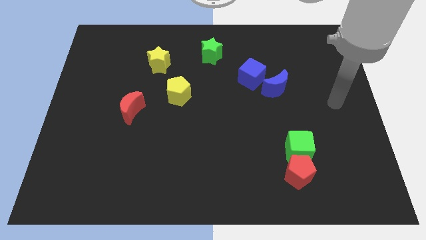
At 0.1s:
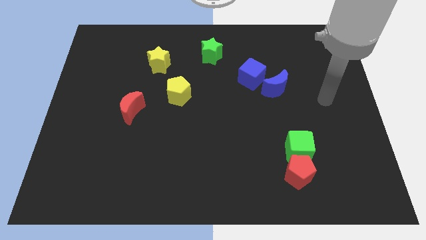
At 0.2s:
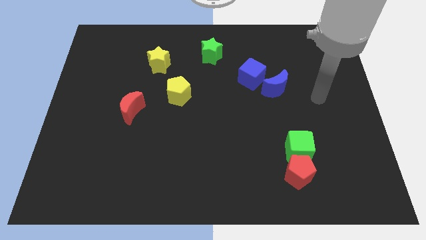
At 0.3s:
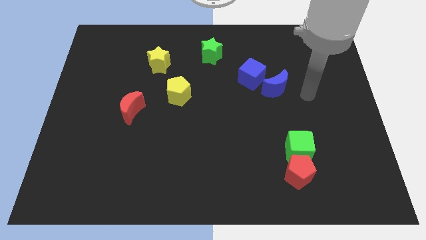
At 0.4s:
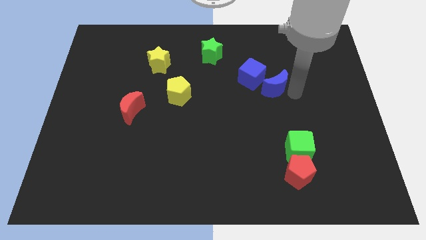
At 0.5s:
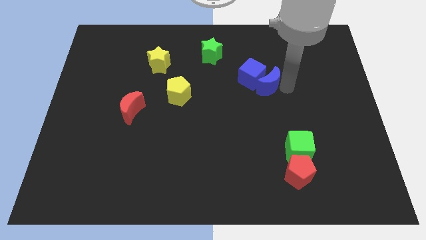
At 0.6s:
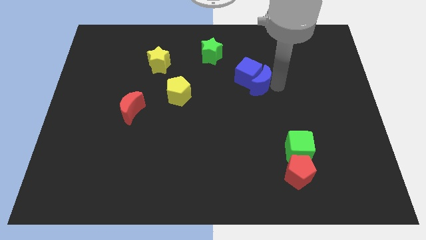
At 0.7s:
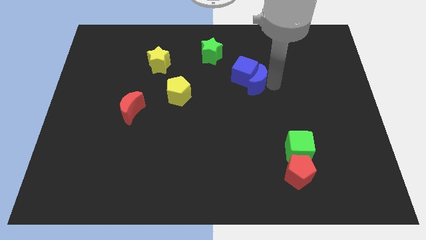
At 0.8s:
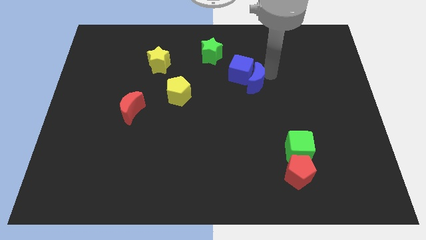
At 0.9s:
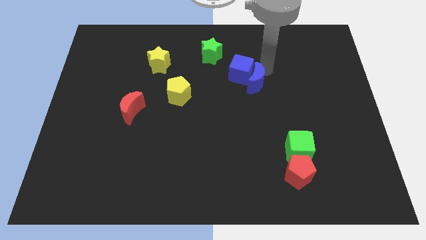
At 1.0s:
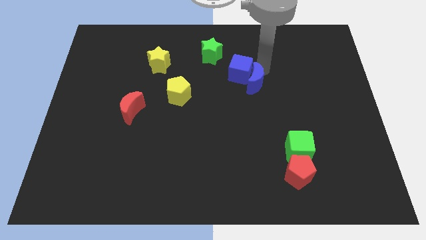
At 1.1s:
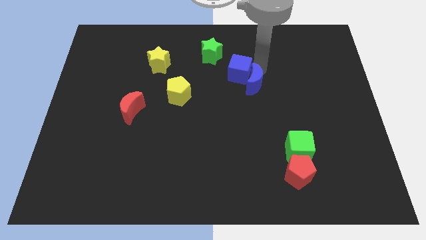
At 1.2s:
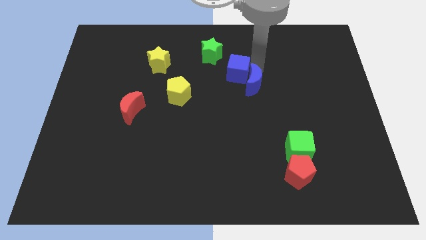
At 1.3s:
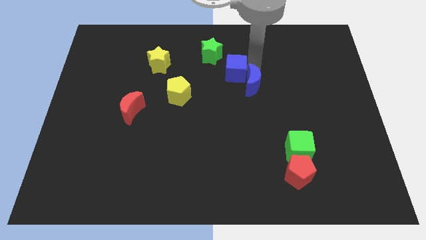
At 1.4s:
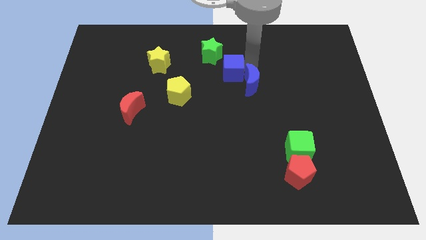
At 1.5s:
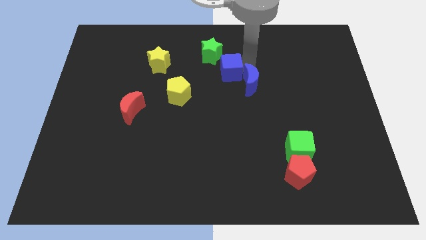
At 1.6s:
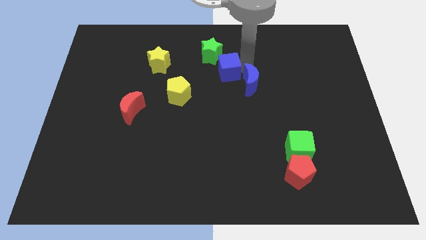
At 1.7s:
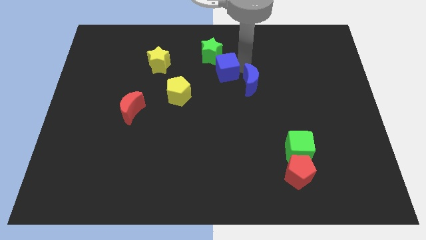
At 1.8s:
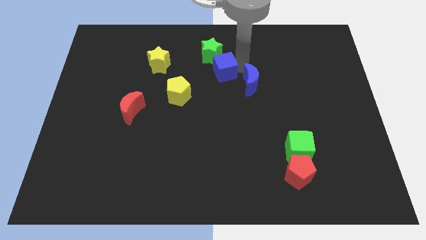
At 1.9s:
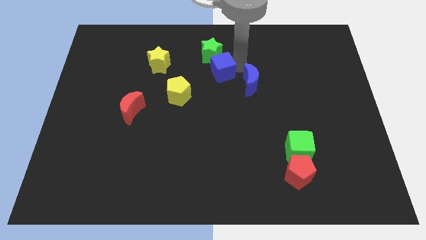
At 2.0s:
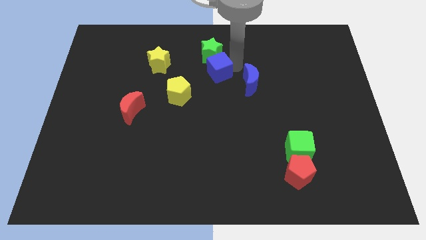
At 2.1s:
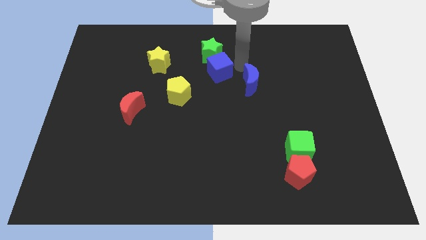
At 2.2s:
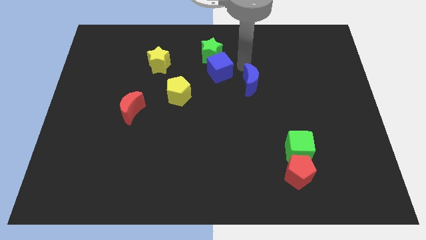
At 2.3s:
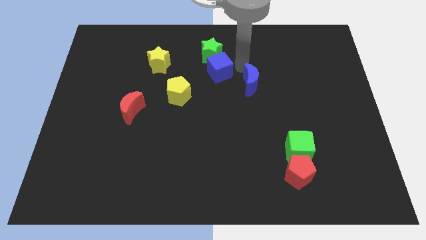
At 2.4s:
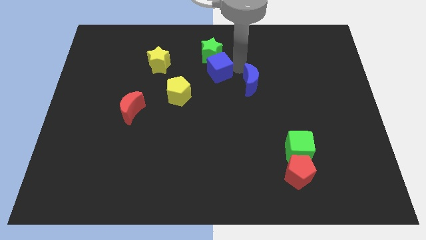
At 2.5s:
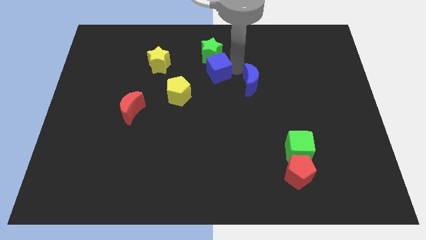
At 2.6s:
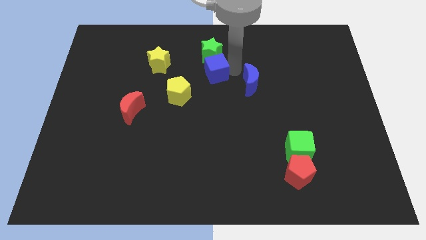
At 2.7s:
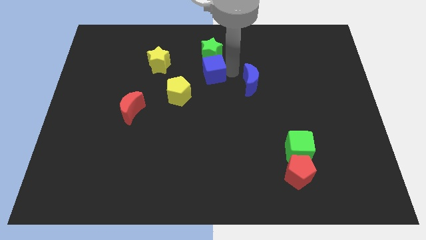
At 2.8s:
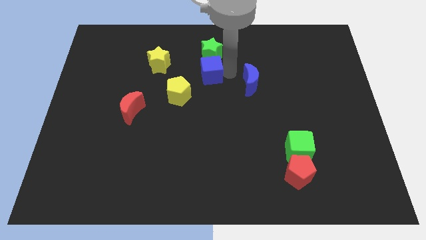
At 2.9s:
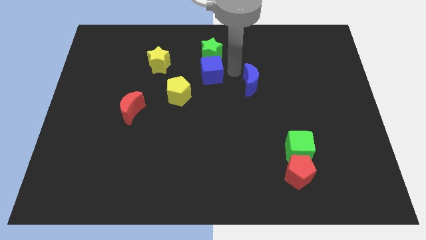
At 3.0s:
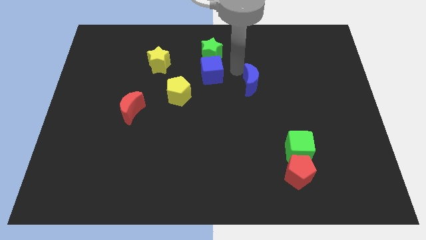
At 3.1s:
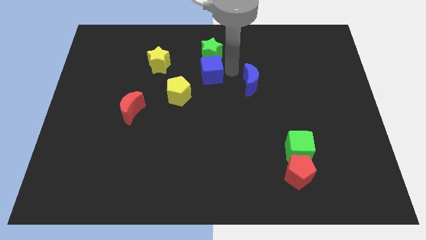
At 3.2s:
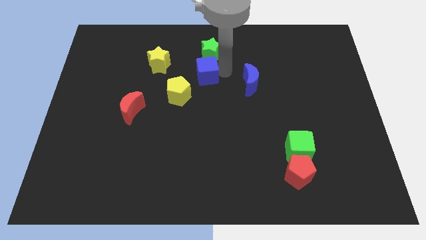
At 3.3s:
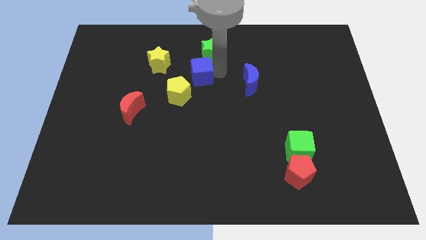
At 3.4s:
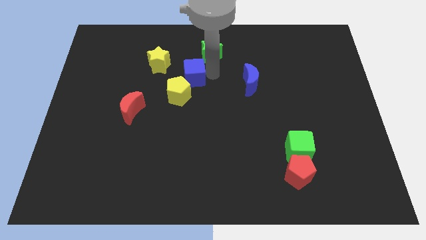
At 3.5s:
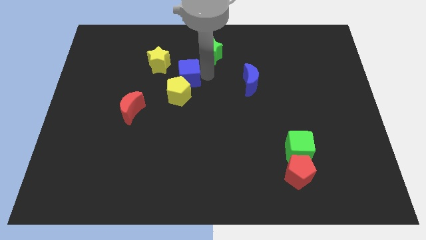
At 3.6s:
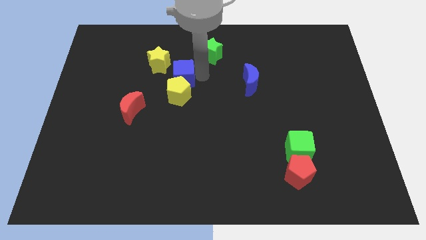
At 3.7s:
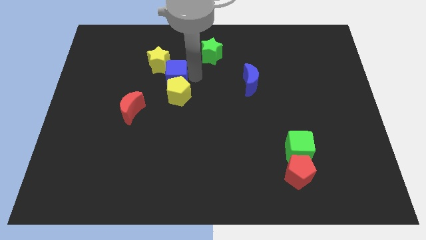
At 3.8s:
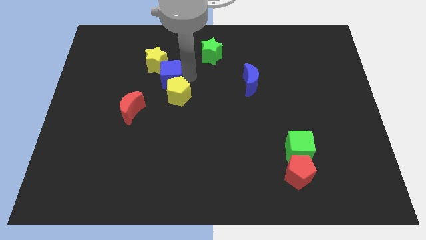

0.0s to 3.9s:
push the blue cube to the left

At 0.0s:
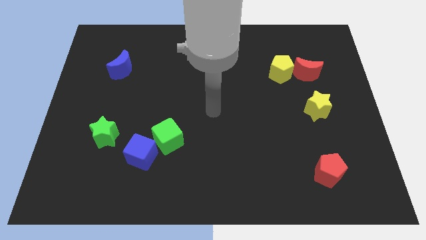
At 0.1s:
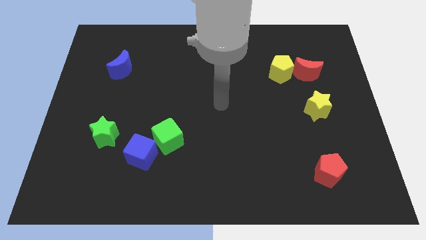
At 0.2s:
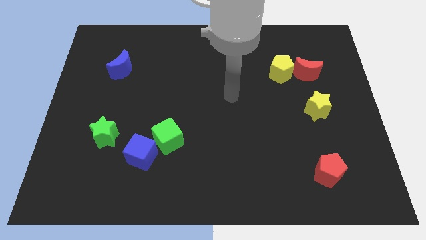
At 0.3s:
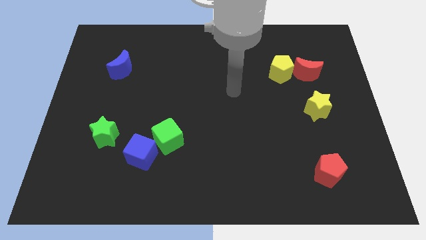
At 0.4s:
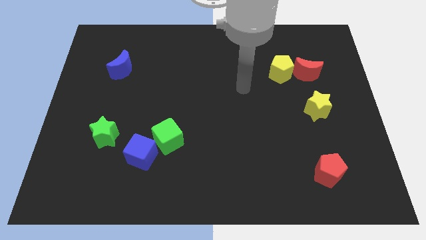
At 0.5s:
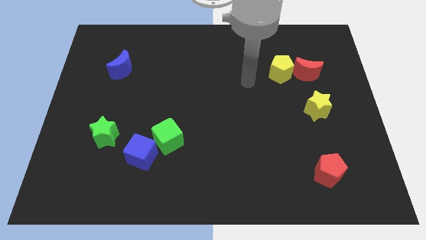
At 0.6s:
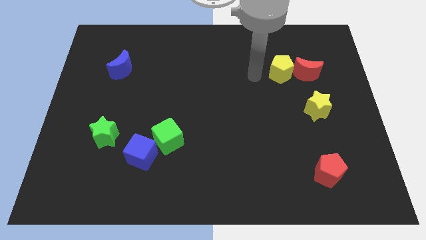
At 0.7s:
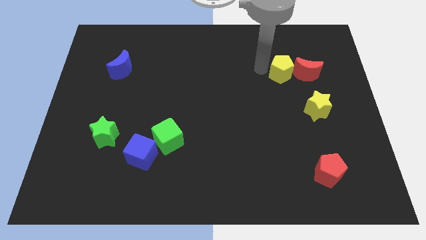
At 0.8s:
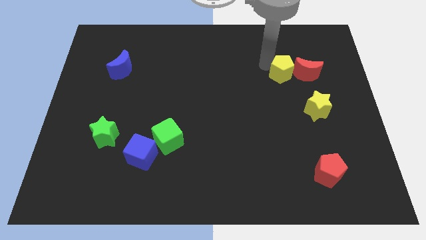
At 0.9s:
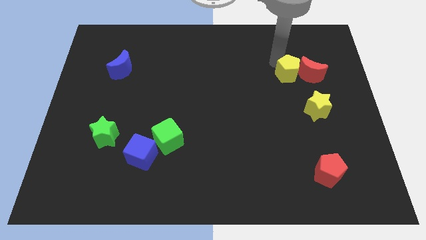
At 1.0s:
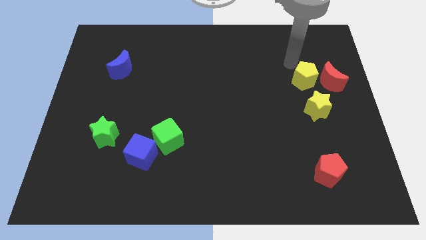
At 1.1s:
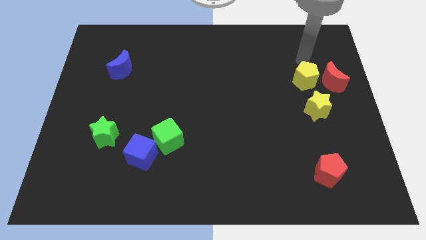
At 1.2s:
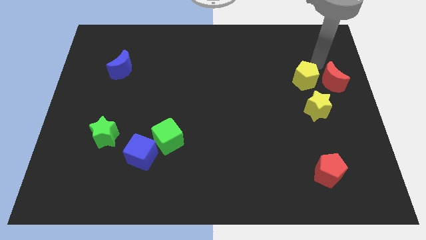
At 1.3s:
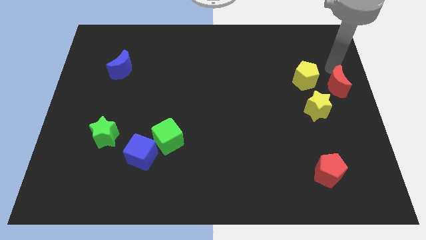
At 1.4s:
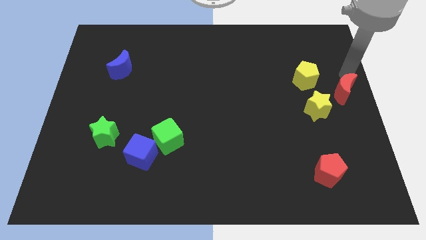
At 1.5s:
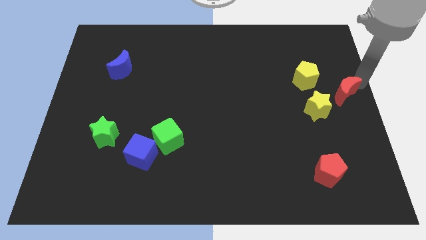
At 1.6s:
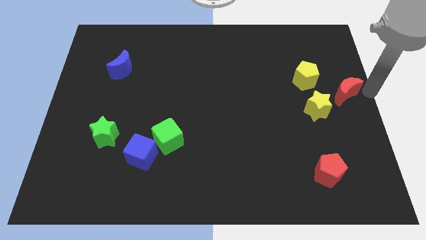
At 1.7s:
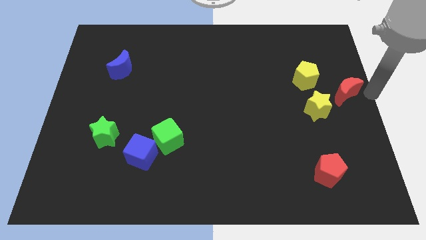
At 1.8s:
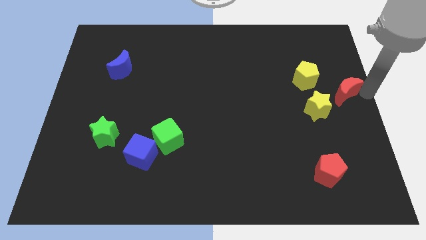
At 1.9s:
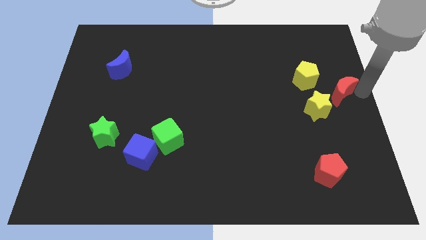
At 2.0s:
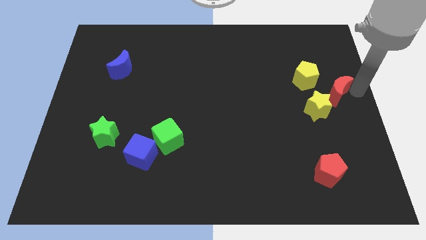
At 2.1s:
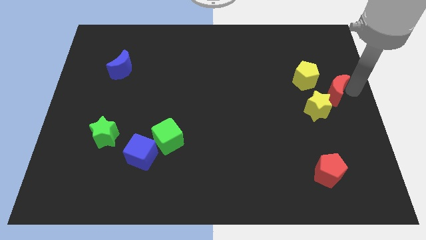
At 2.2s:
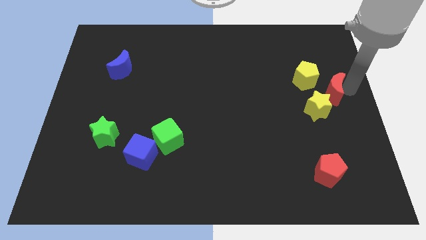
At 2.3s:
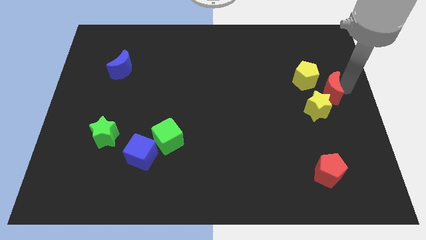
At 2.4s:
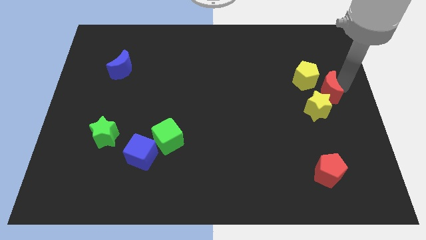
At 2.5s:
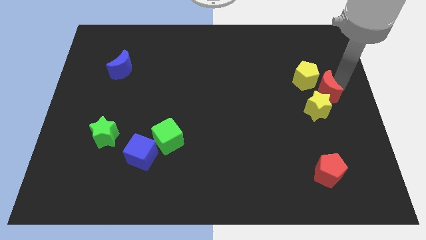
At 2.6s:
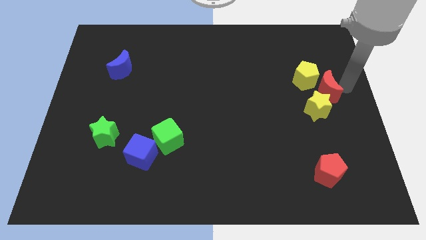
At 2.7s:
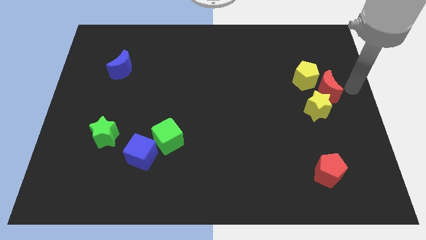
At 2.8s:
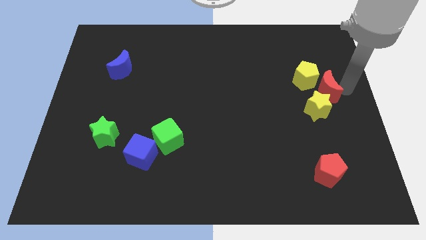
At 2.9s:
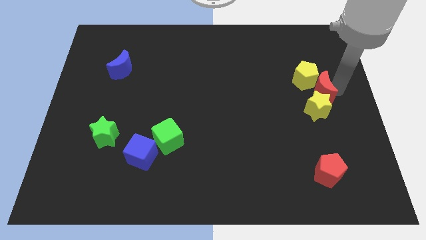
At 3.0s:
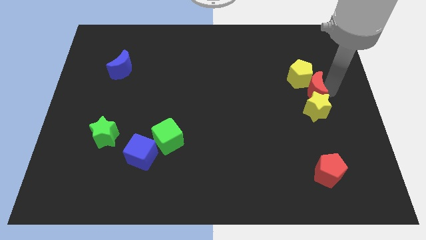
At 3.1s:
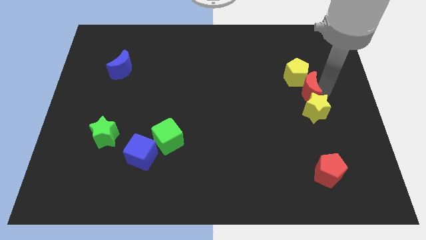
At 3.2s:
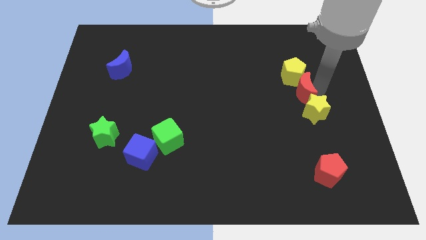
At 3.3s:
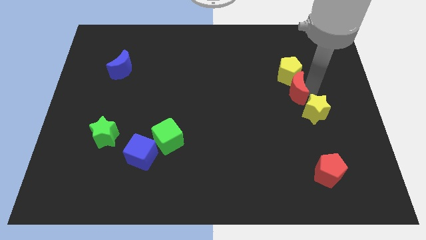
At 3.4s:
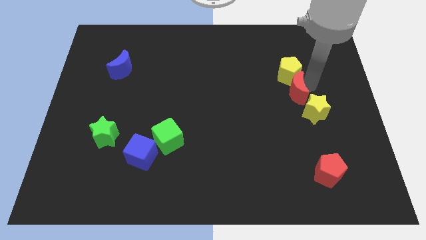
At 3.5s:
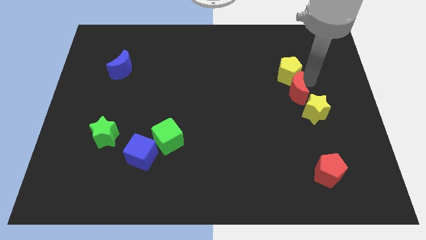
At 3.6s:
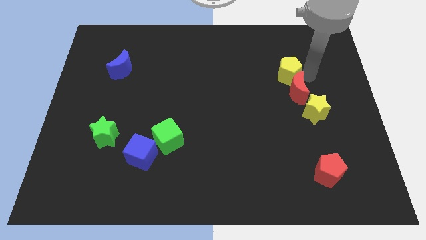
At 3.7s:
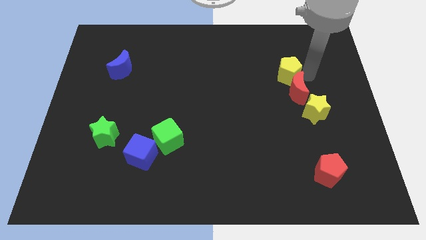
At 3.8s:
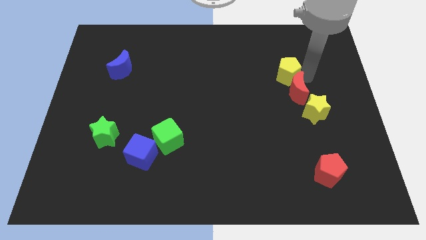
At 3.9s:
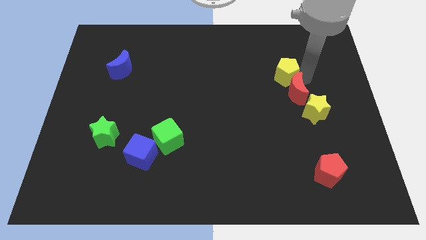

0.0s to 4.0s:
slightly move the red moon downwards and then to the left

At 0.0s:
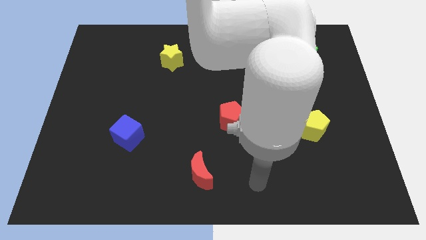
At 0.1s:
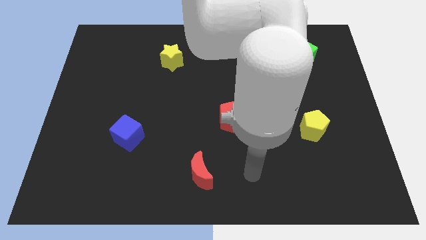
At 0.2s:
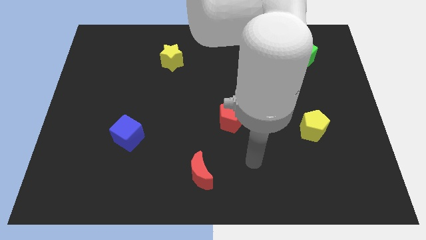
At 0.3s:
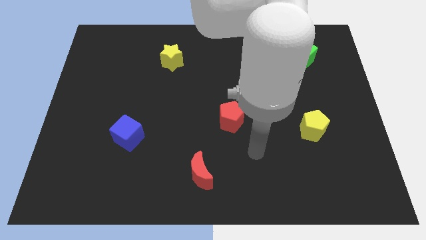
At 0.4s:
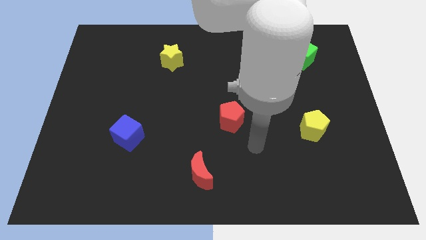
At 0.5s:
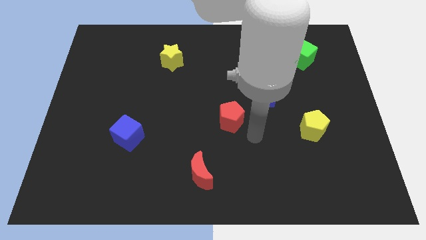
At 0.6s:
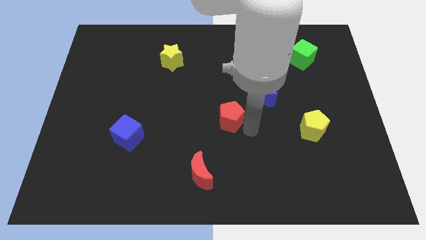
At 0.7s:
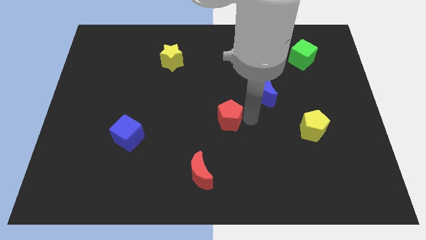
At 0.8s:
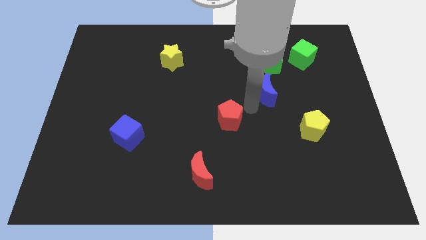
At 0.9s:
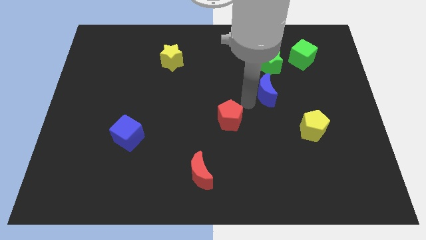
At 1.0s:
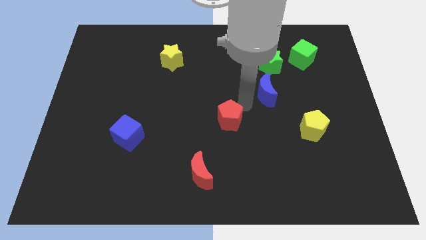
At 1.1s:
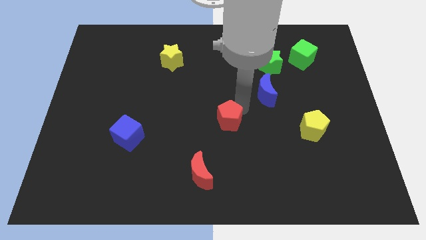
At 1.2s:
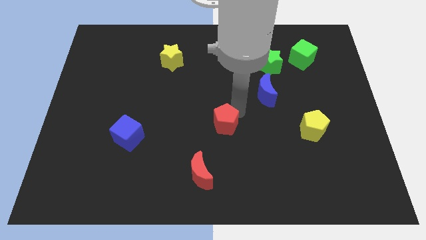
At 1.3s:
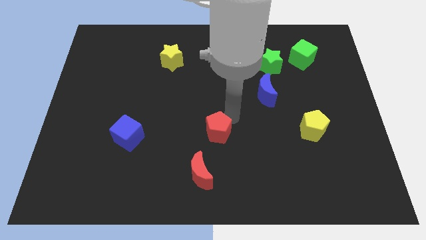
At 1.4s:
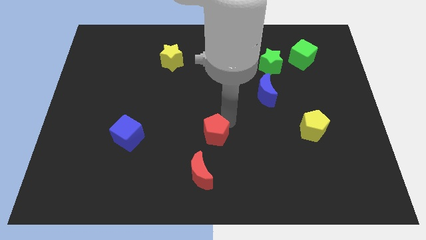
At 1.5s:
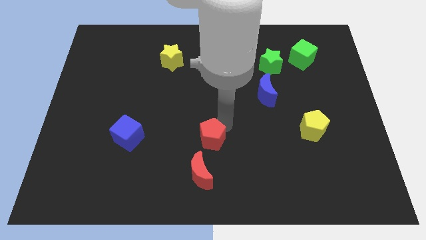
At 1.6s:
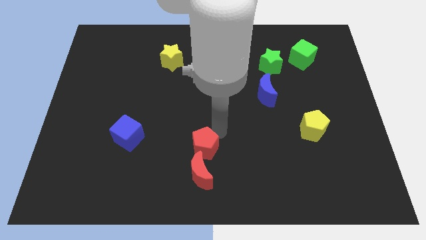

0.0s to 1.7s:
move the red pentagon downwards and left diagonally somewhat
